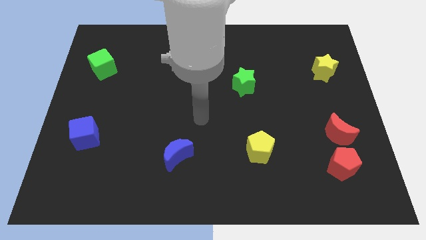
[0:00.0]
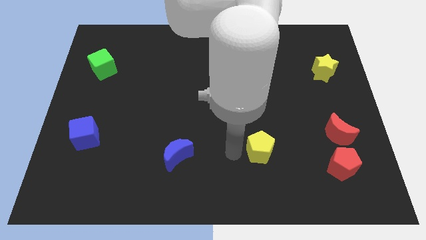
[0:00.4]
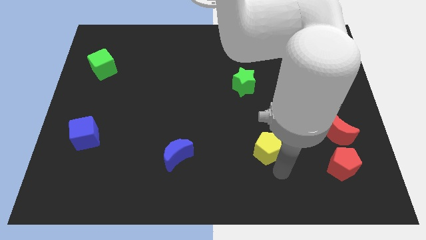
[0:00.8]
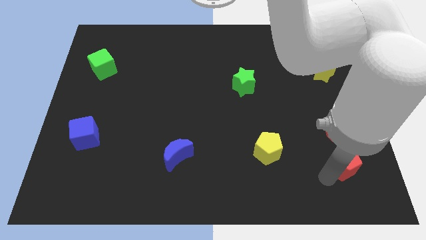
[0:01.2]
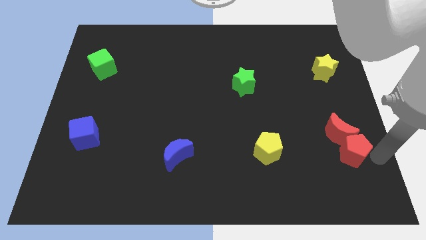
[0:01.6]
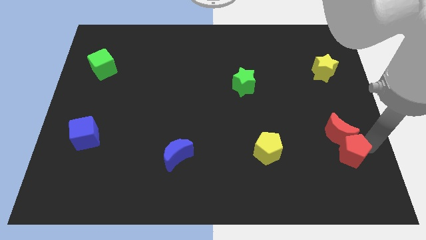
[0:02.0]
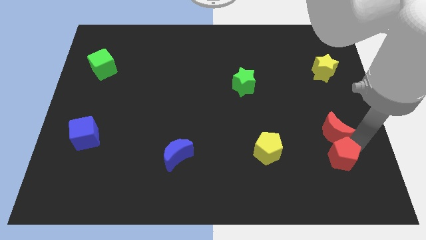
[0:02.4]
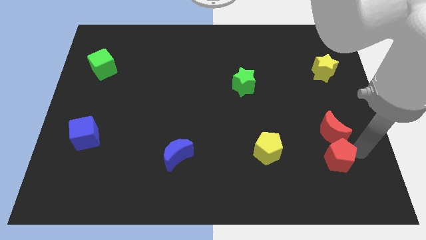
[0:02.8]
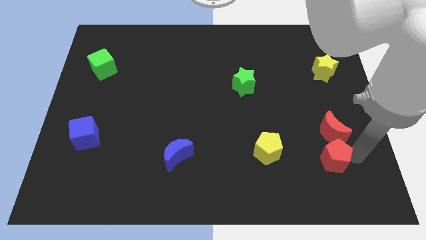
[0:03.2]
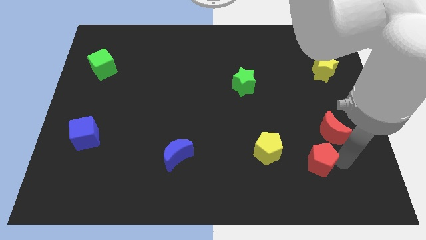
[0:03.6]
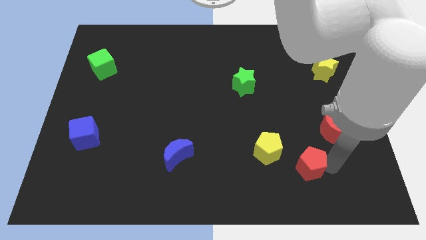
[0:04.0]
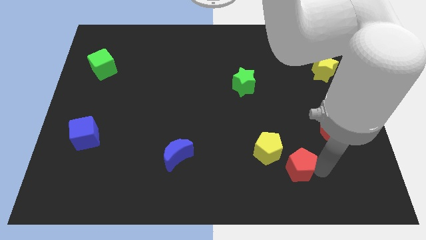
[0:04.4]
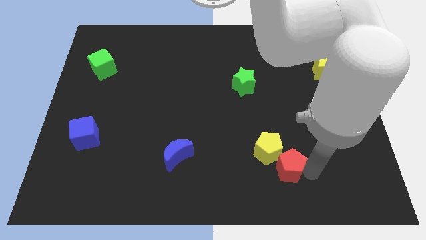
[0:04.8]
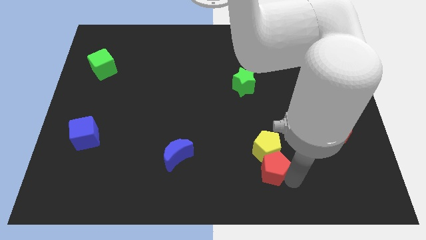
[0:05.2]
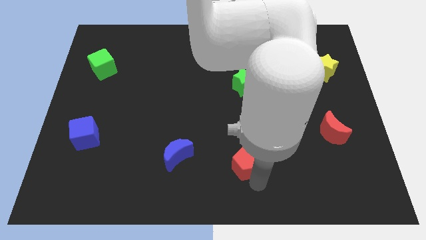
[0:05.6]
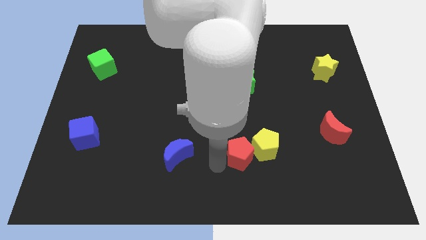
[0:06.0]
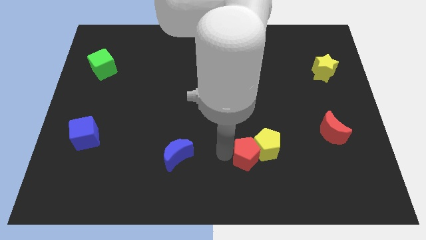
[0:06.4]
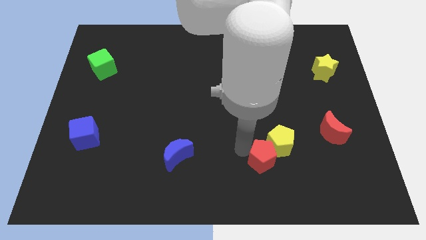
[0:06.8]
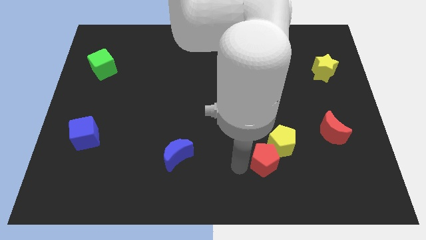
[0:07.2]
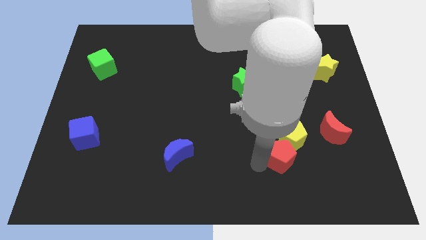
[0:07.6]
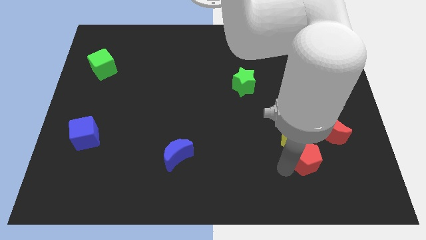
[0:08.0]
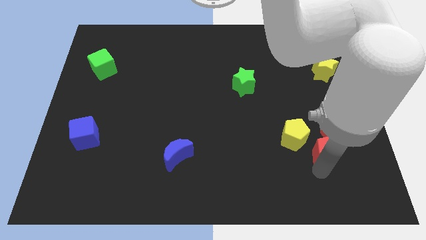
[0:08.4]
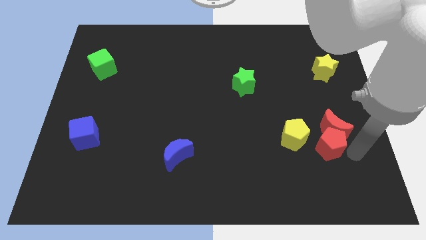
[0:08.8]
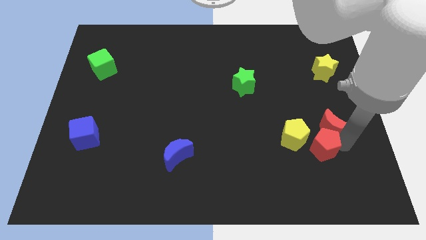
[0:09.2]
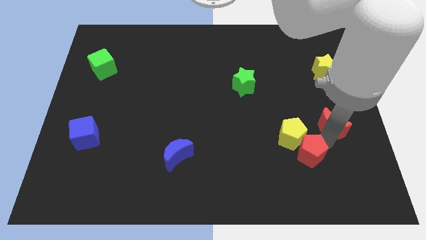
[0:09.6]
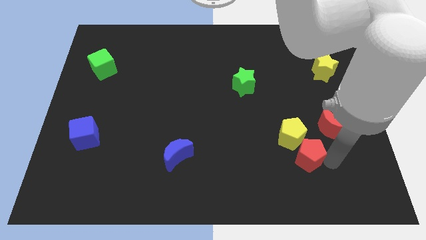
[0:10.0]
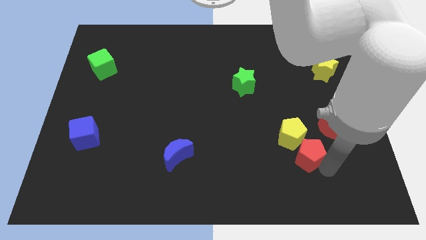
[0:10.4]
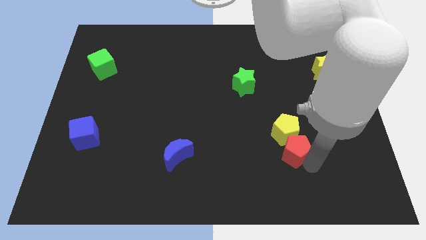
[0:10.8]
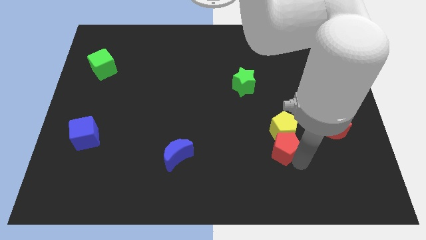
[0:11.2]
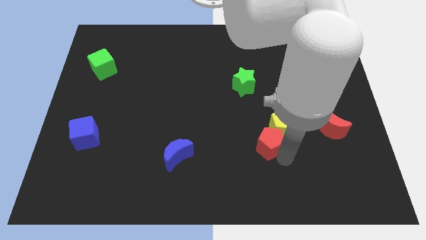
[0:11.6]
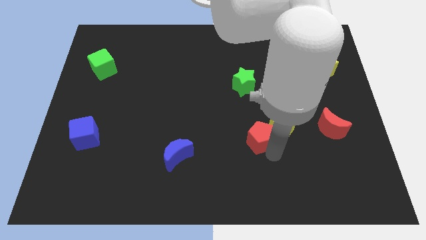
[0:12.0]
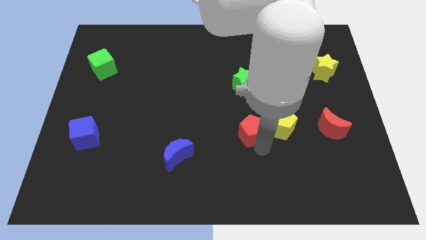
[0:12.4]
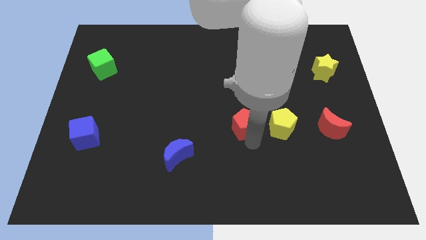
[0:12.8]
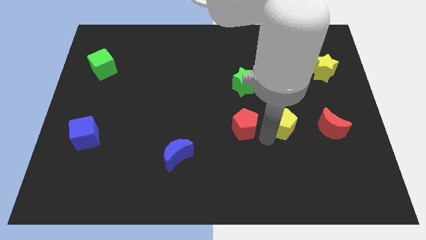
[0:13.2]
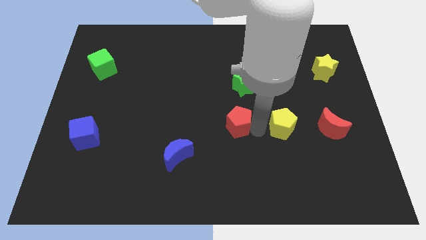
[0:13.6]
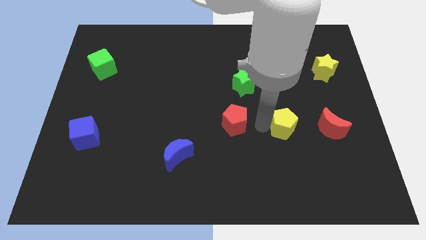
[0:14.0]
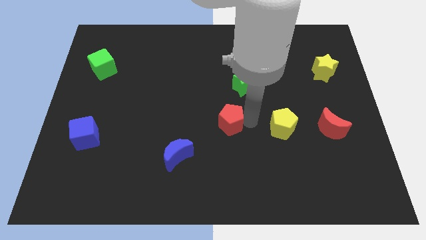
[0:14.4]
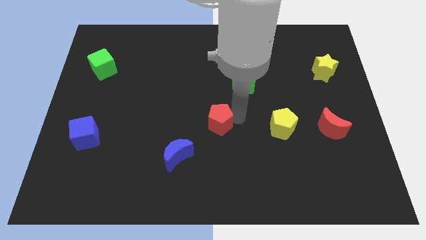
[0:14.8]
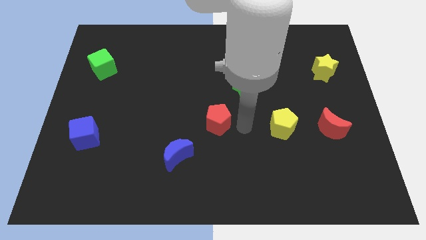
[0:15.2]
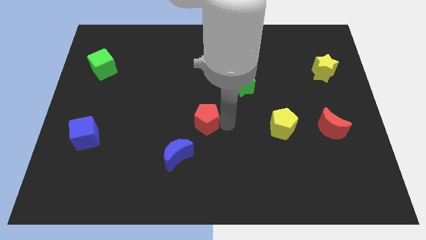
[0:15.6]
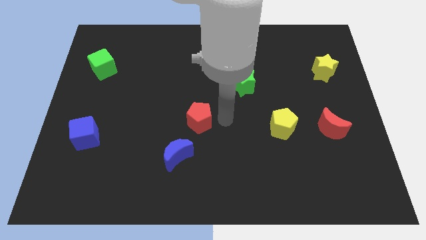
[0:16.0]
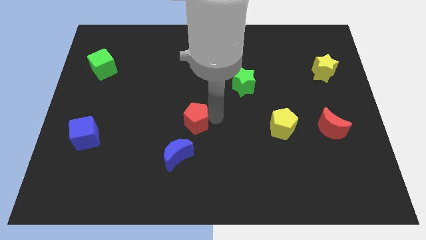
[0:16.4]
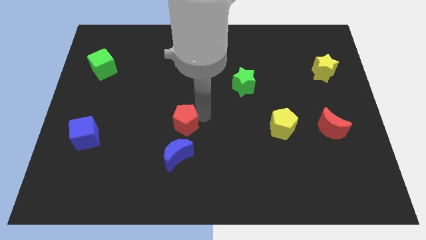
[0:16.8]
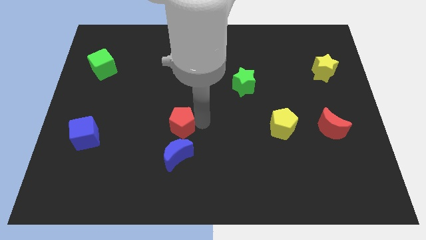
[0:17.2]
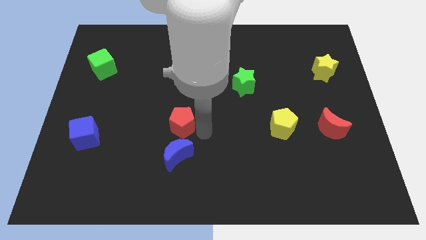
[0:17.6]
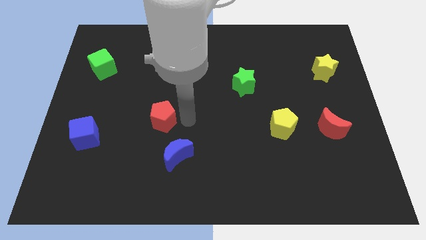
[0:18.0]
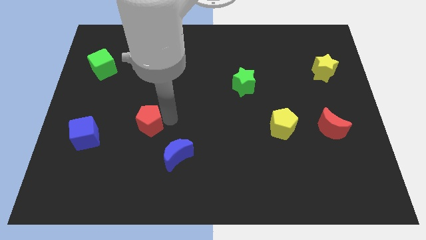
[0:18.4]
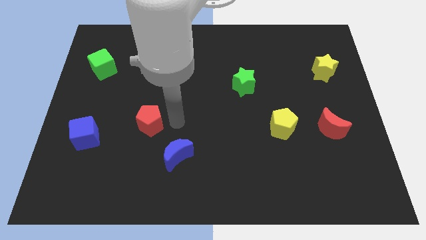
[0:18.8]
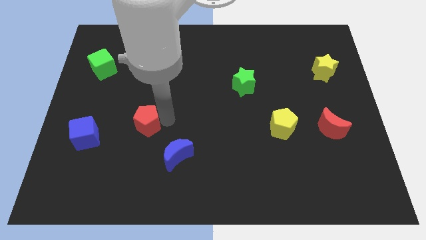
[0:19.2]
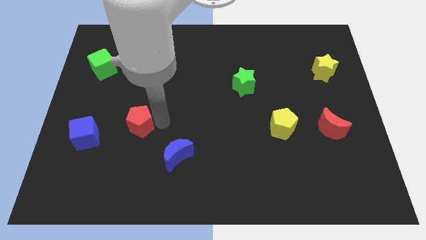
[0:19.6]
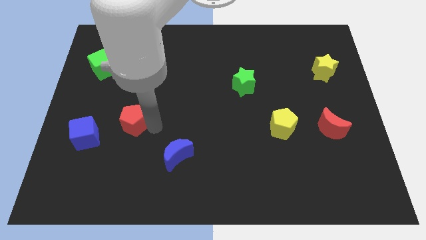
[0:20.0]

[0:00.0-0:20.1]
slide the red pentagon diagonally up and to the right of the blue cube

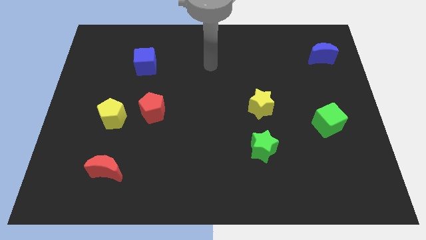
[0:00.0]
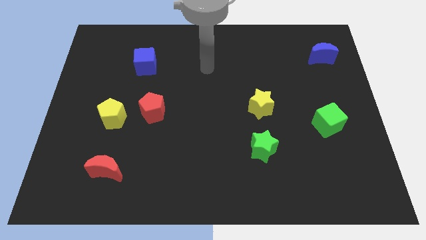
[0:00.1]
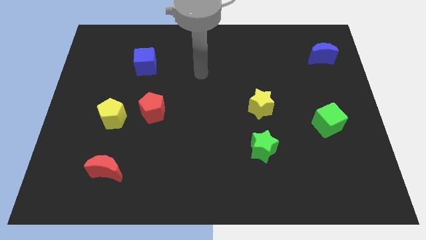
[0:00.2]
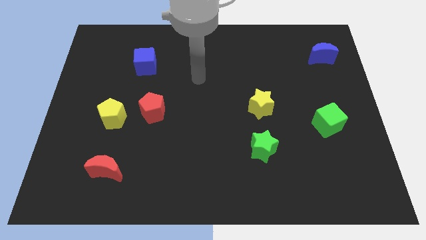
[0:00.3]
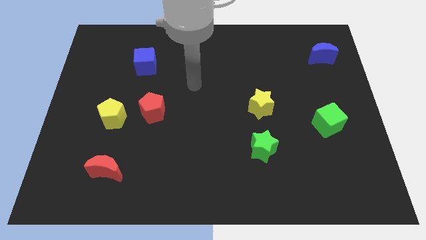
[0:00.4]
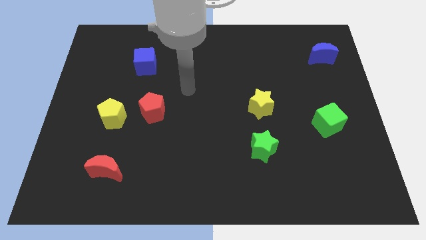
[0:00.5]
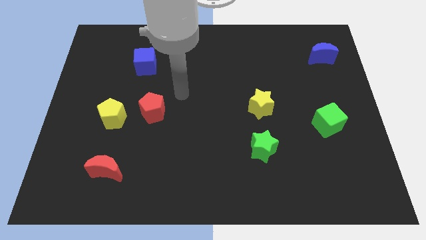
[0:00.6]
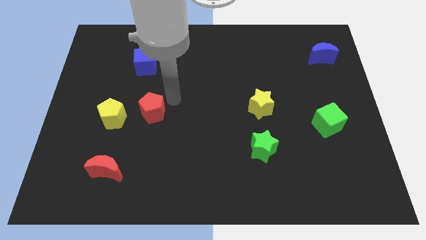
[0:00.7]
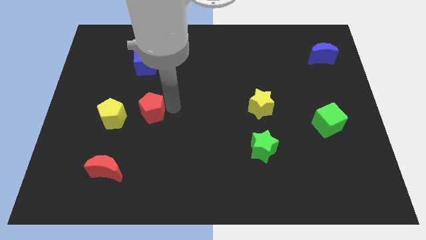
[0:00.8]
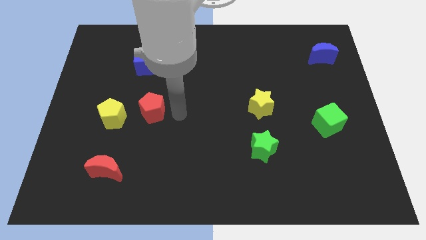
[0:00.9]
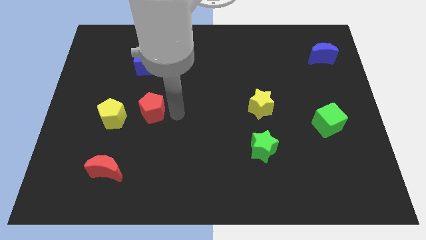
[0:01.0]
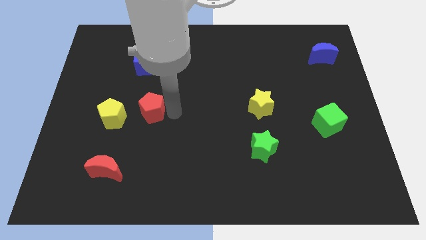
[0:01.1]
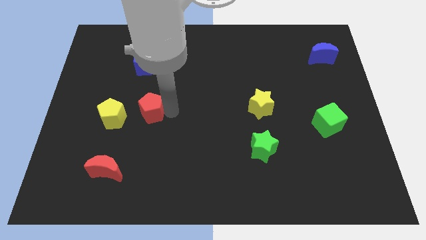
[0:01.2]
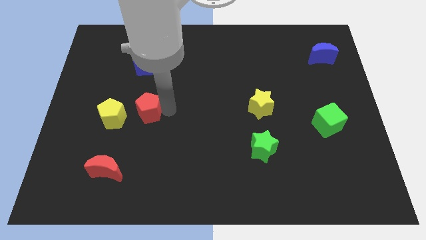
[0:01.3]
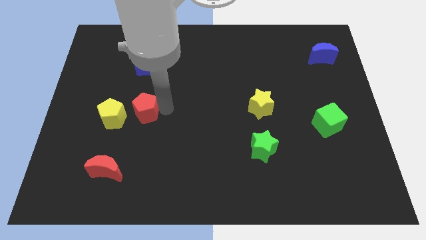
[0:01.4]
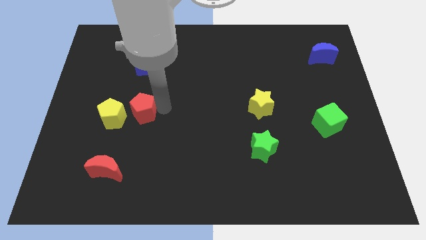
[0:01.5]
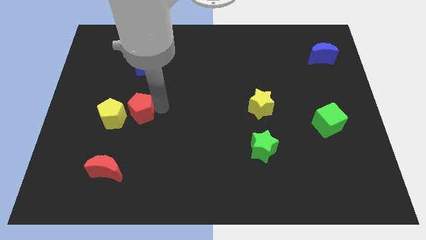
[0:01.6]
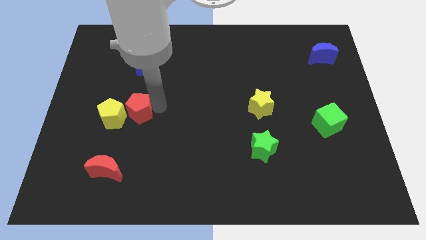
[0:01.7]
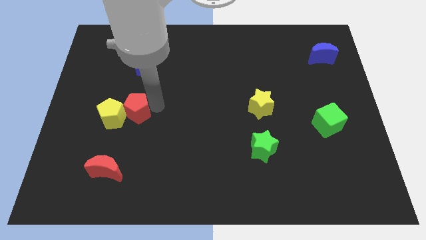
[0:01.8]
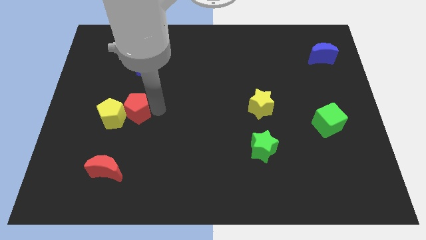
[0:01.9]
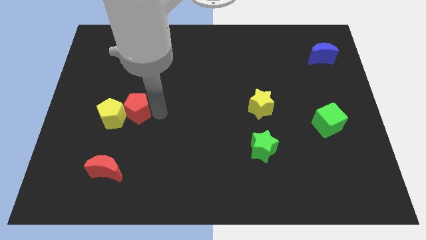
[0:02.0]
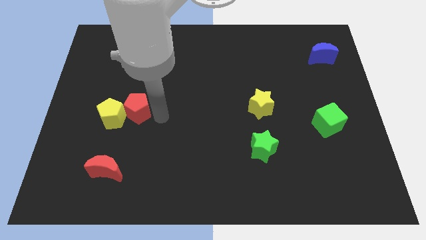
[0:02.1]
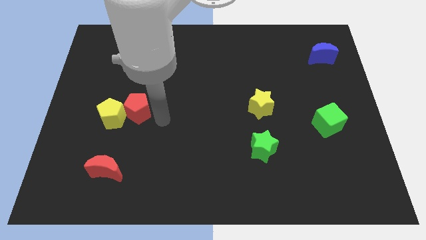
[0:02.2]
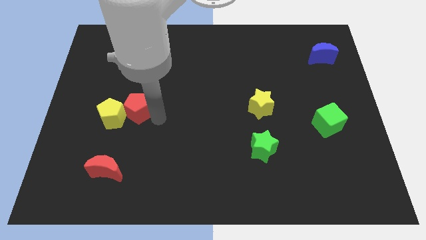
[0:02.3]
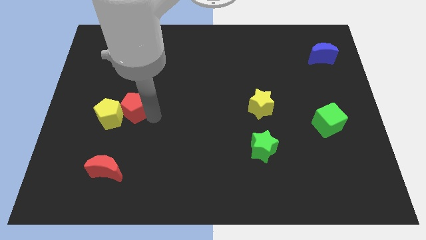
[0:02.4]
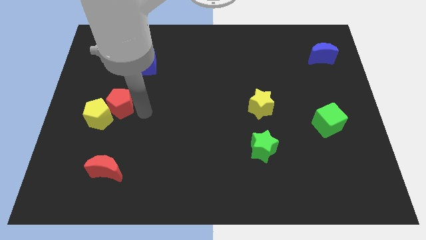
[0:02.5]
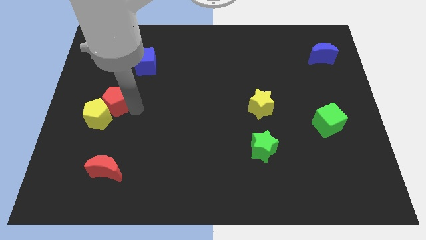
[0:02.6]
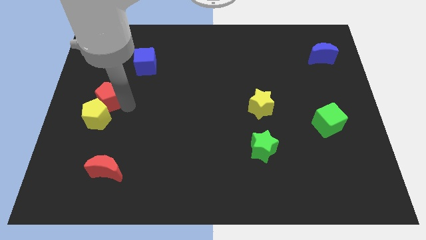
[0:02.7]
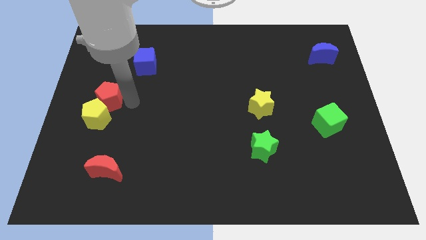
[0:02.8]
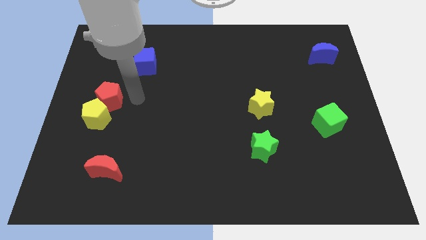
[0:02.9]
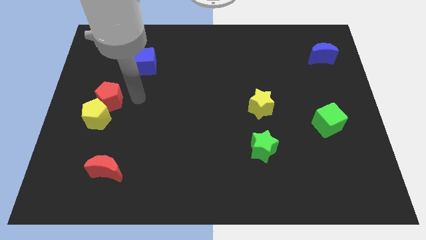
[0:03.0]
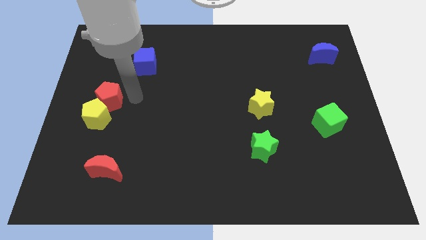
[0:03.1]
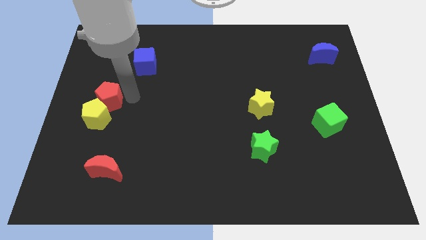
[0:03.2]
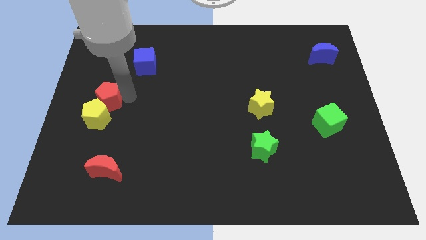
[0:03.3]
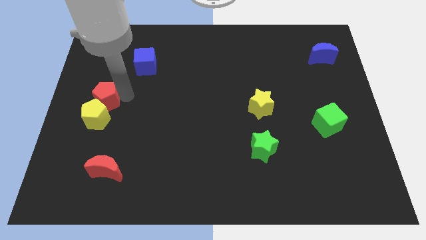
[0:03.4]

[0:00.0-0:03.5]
put the red pentagon to the top left side of the yellow pentagon
